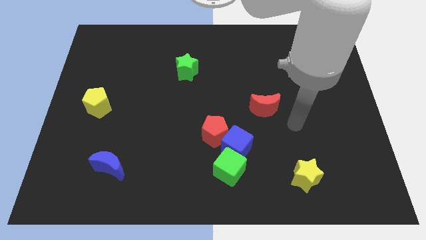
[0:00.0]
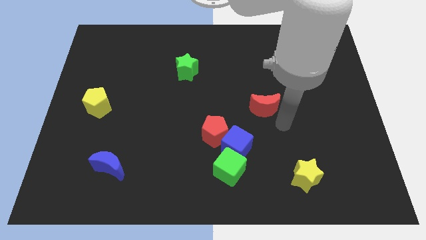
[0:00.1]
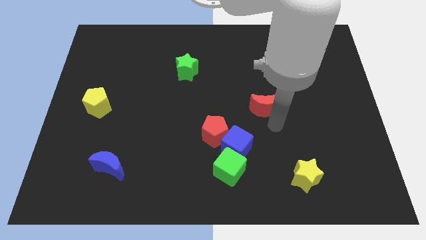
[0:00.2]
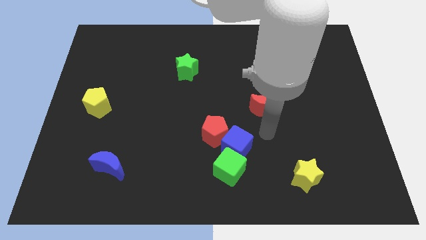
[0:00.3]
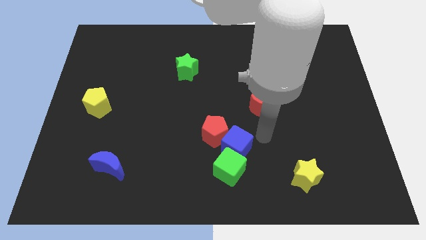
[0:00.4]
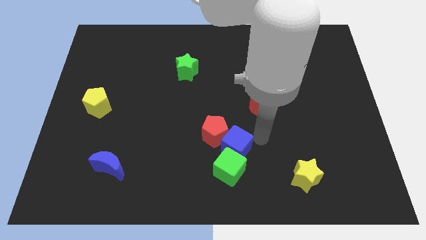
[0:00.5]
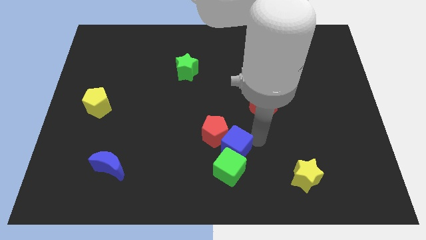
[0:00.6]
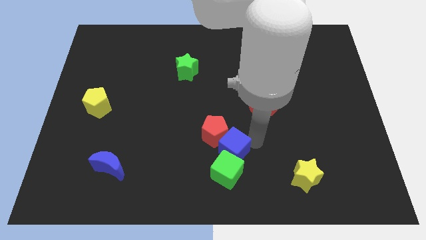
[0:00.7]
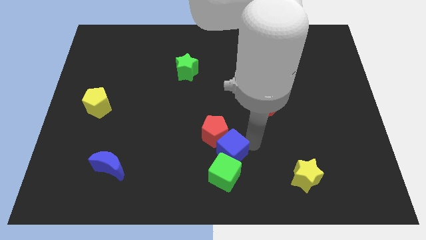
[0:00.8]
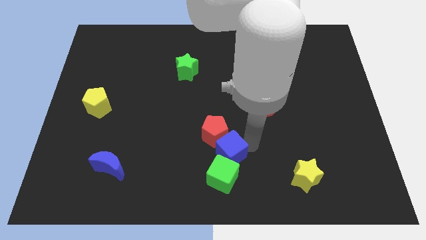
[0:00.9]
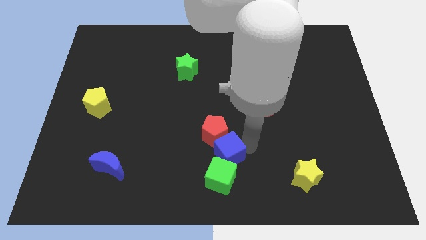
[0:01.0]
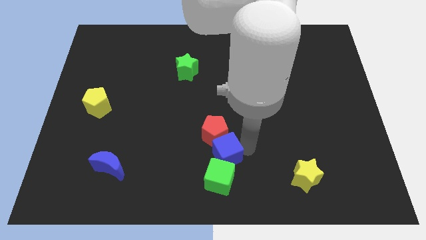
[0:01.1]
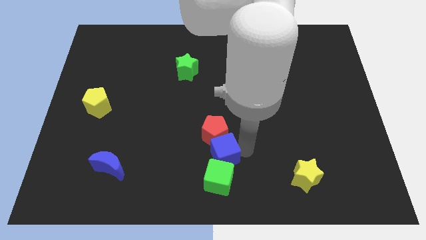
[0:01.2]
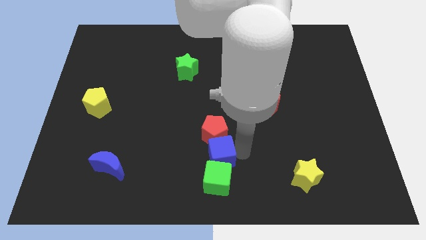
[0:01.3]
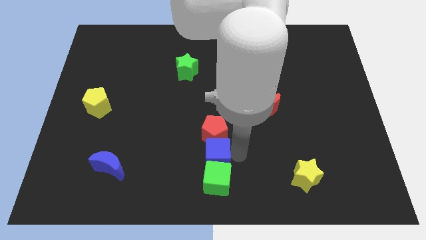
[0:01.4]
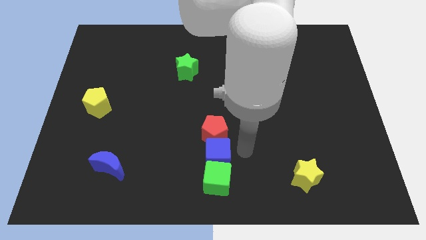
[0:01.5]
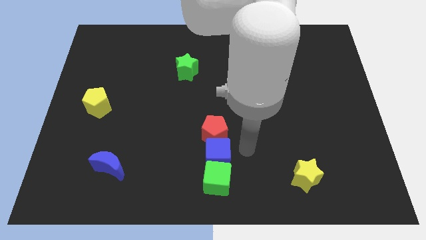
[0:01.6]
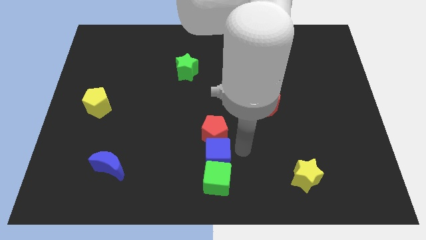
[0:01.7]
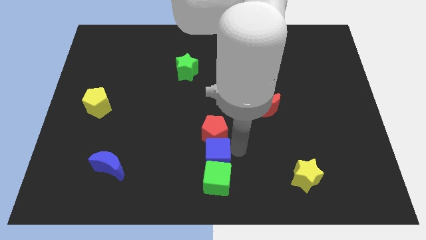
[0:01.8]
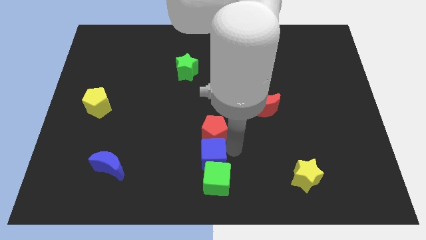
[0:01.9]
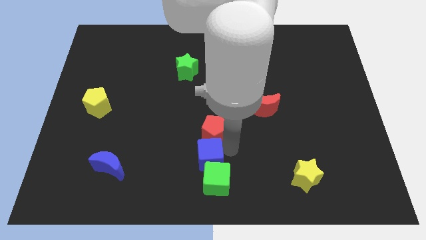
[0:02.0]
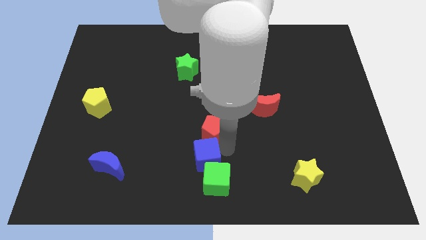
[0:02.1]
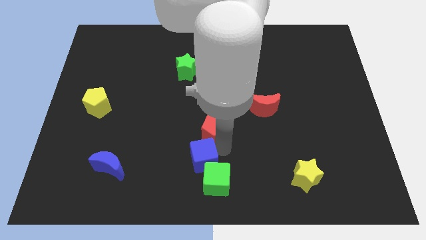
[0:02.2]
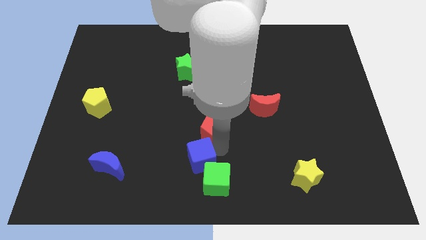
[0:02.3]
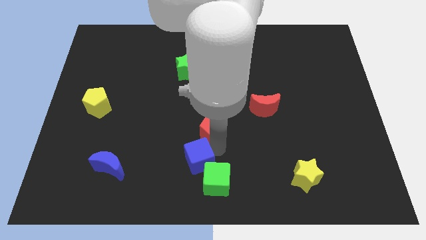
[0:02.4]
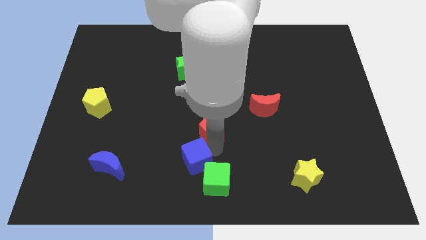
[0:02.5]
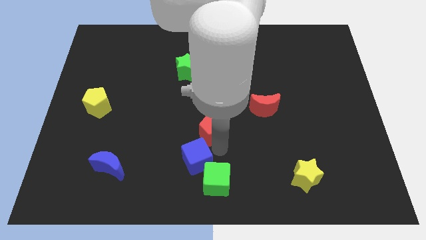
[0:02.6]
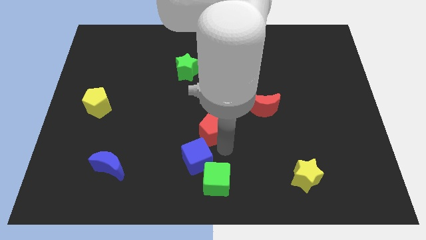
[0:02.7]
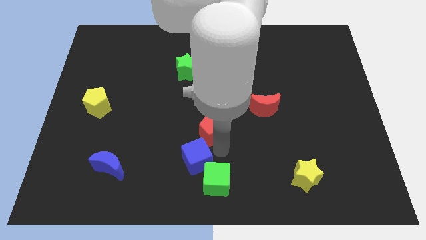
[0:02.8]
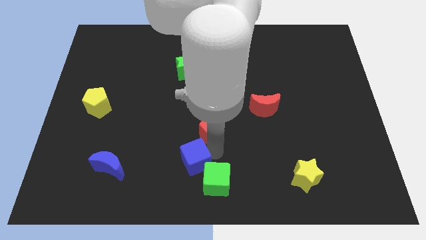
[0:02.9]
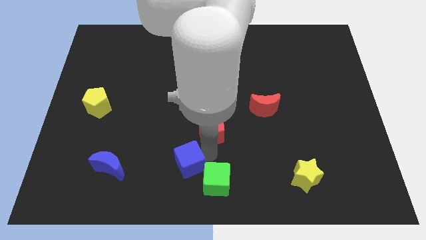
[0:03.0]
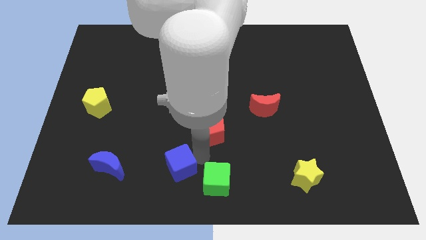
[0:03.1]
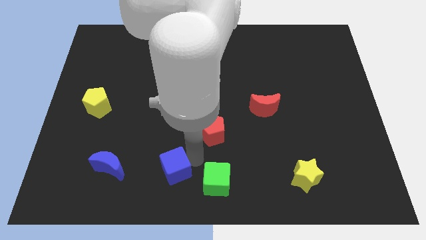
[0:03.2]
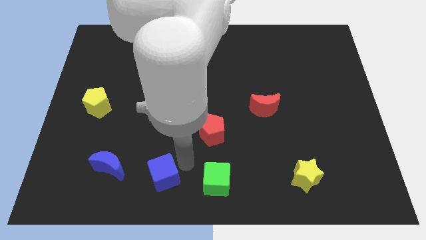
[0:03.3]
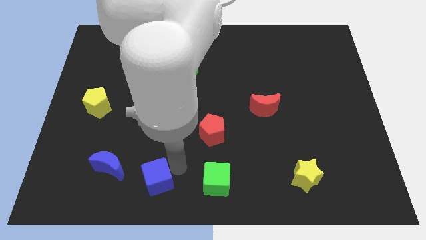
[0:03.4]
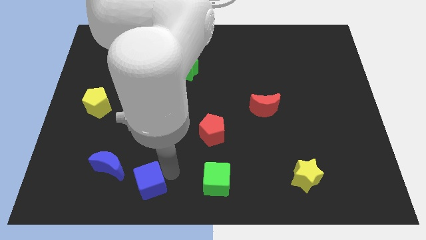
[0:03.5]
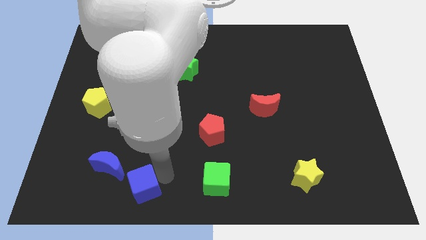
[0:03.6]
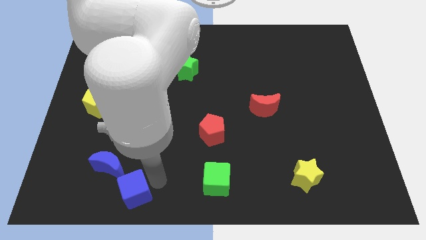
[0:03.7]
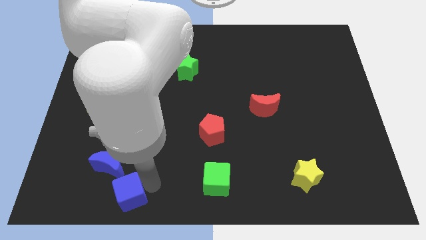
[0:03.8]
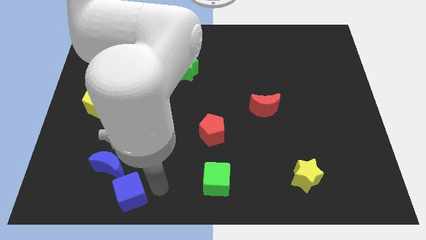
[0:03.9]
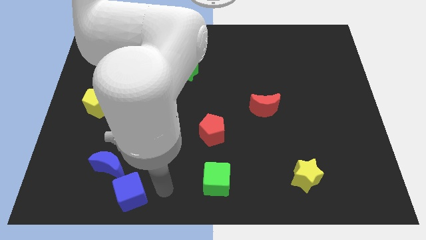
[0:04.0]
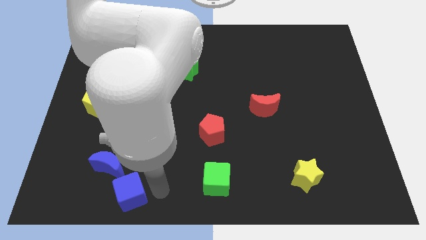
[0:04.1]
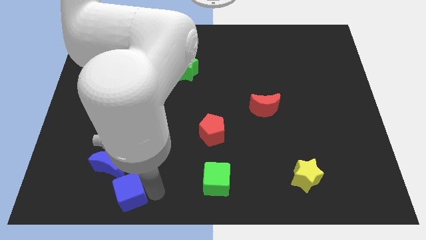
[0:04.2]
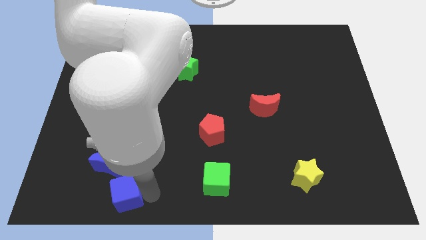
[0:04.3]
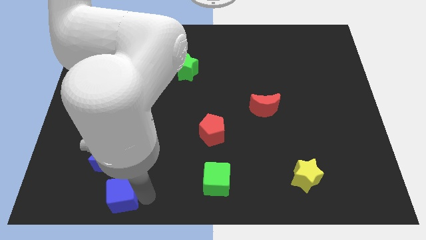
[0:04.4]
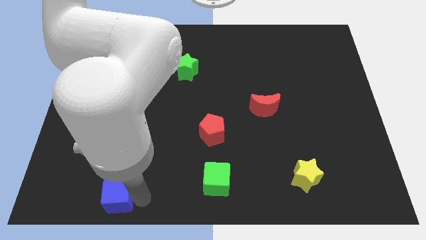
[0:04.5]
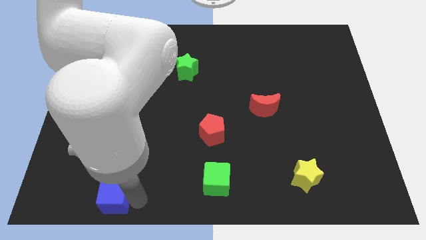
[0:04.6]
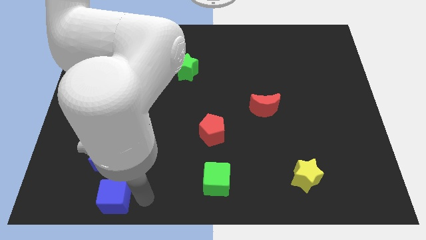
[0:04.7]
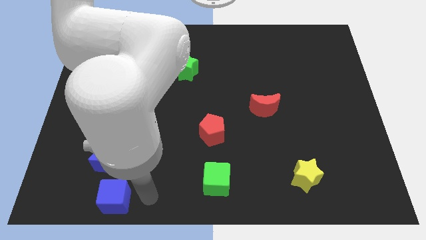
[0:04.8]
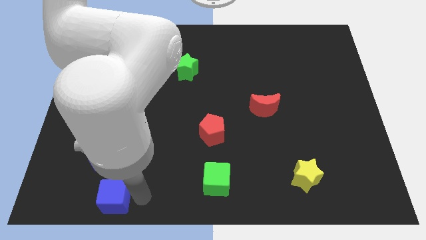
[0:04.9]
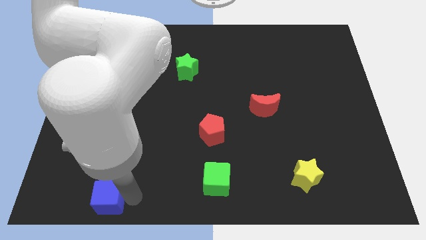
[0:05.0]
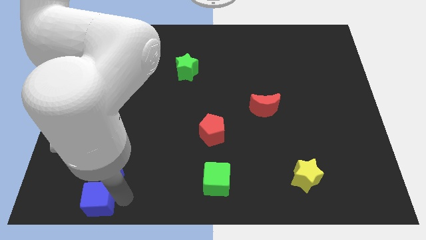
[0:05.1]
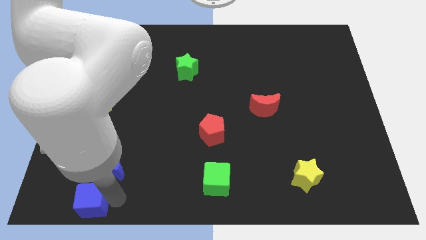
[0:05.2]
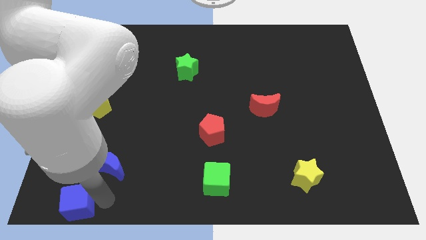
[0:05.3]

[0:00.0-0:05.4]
slide the blue cube to the bottom left corner

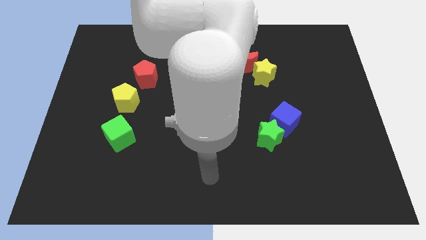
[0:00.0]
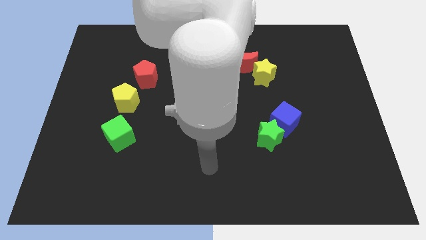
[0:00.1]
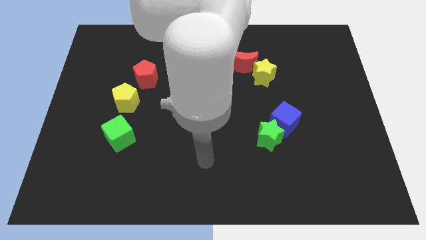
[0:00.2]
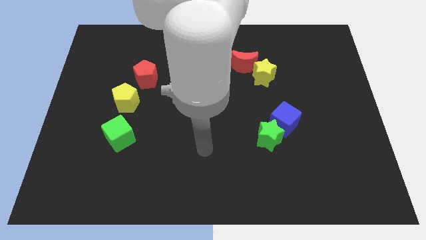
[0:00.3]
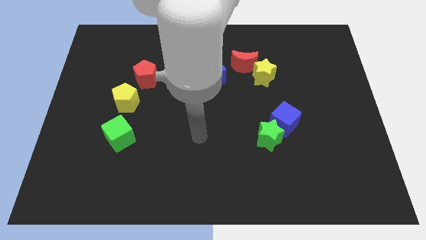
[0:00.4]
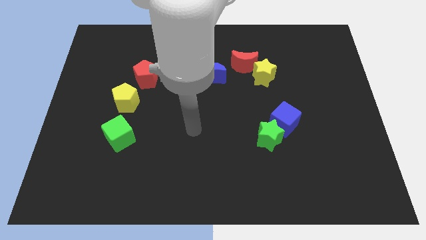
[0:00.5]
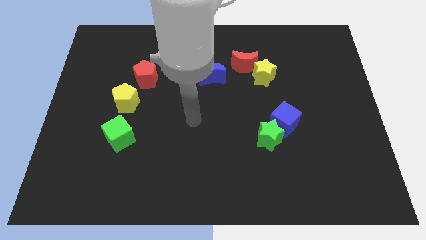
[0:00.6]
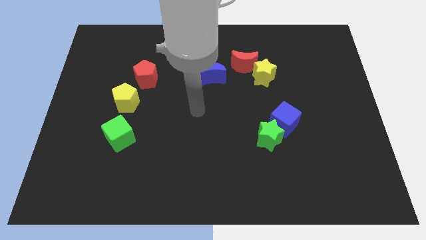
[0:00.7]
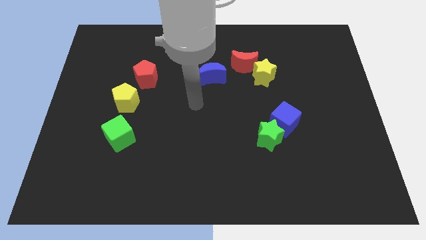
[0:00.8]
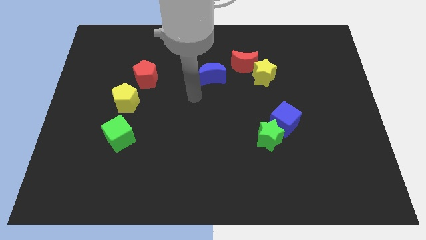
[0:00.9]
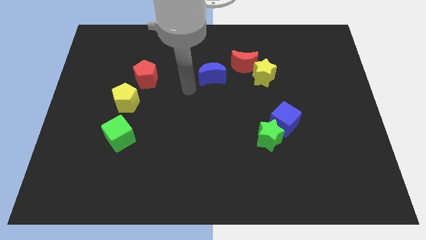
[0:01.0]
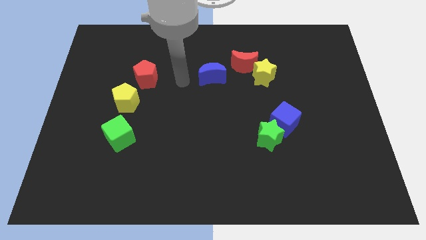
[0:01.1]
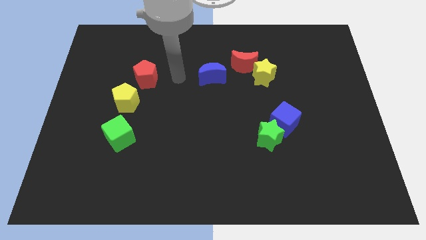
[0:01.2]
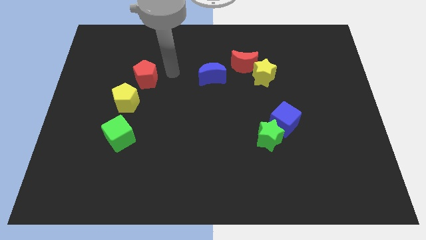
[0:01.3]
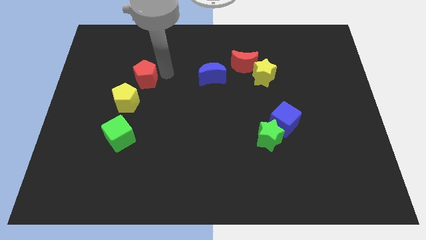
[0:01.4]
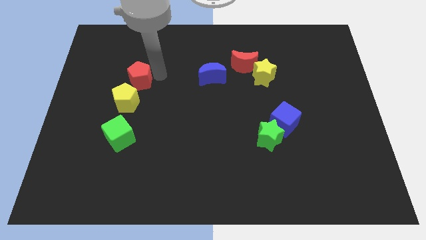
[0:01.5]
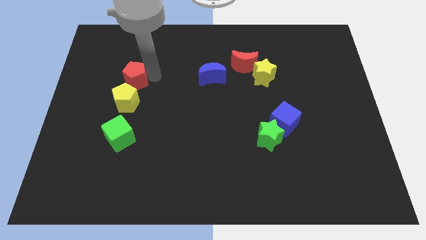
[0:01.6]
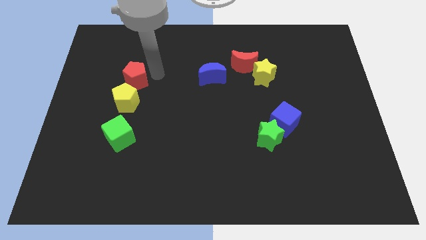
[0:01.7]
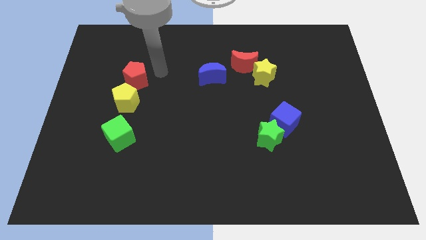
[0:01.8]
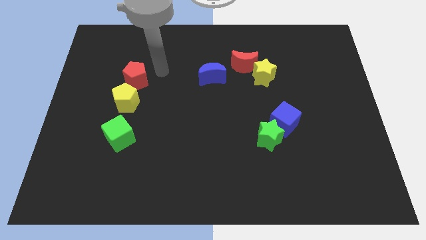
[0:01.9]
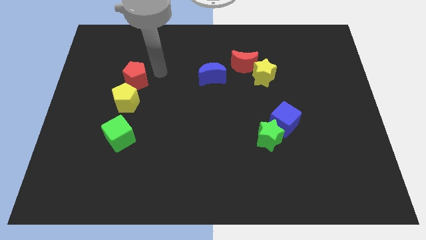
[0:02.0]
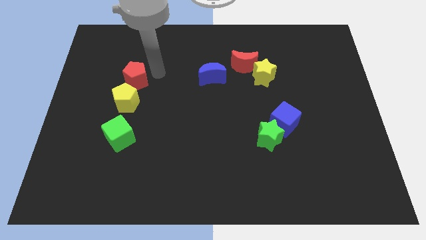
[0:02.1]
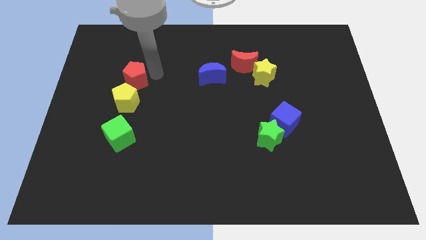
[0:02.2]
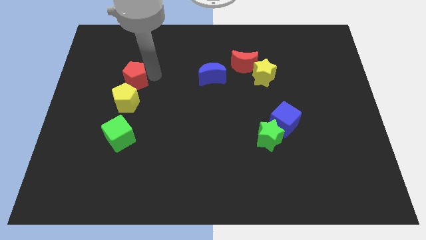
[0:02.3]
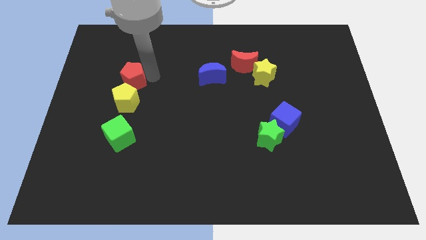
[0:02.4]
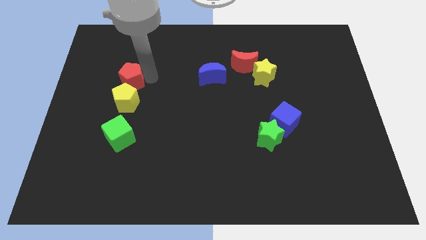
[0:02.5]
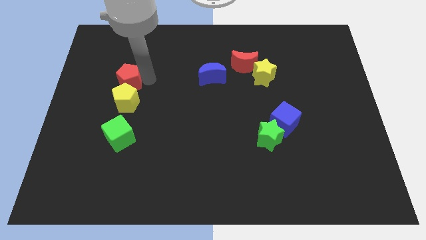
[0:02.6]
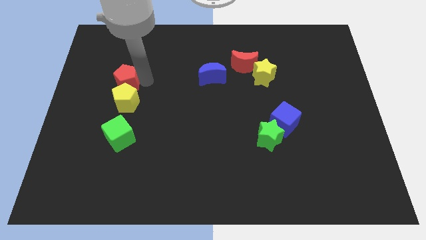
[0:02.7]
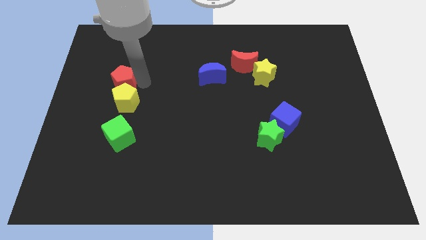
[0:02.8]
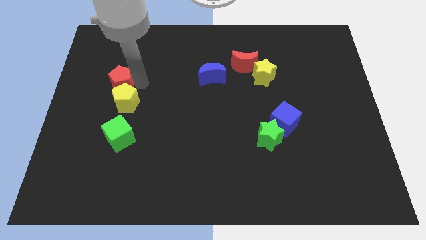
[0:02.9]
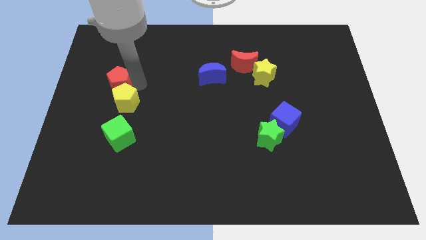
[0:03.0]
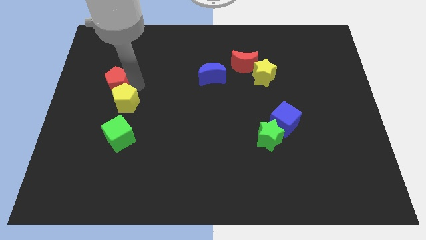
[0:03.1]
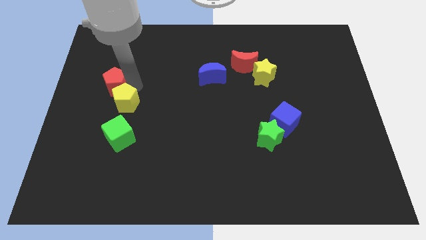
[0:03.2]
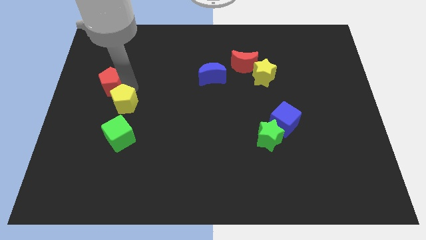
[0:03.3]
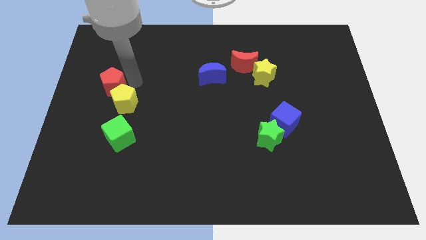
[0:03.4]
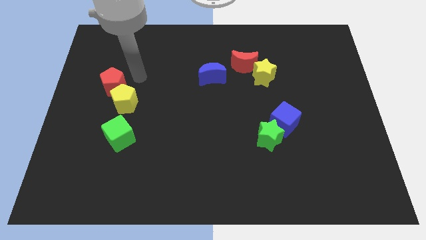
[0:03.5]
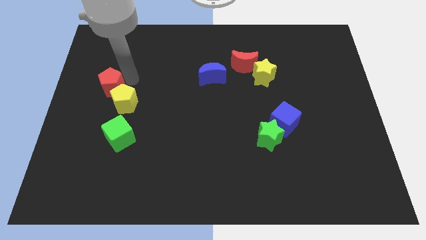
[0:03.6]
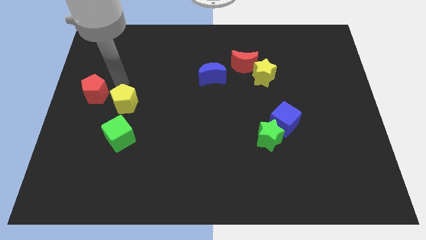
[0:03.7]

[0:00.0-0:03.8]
put the red pentagon to the center left
